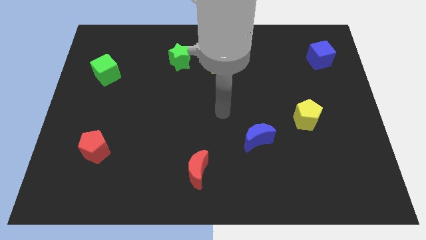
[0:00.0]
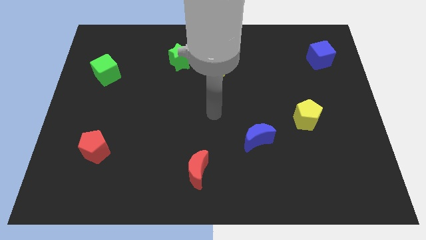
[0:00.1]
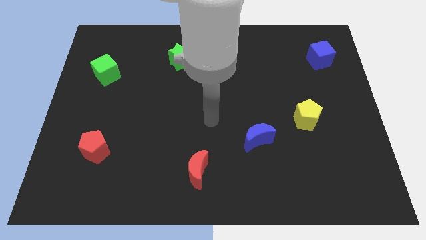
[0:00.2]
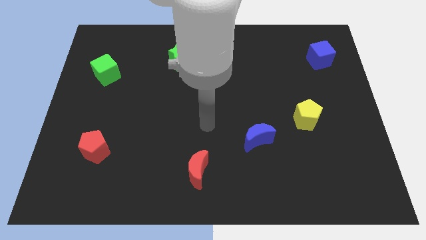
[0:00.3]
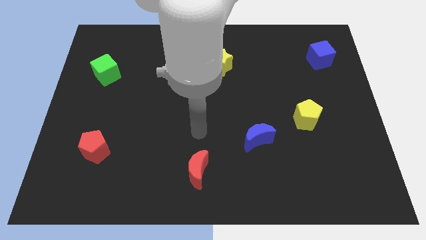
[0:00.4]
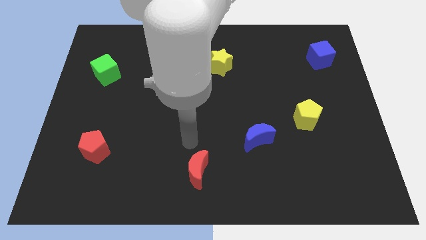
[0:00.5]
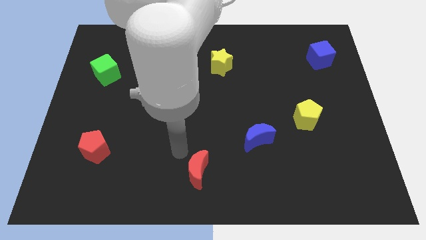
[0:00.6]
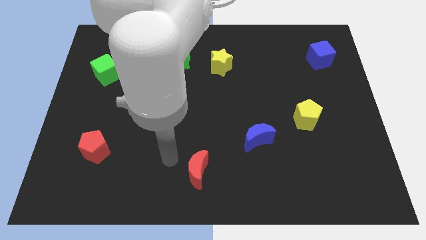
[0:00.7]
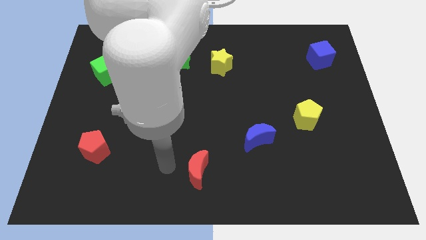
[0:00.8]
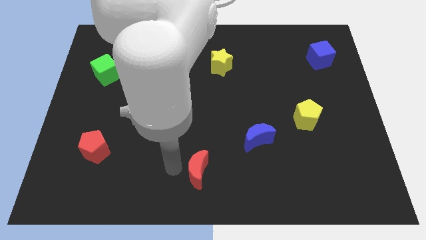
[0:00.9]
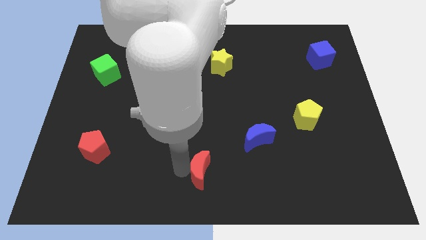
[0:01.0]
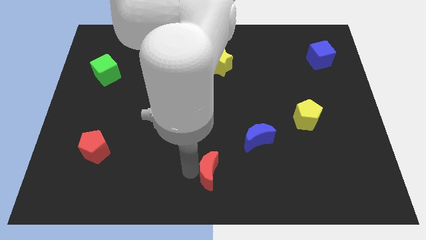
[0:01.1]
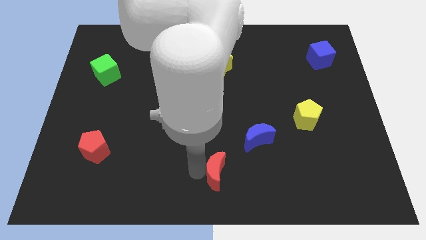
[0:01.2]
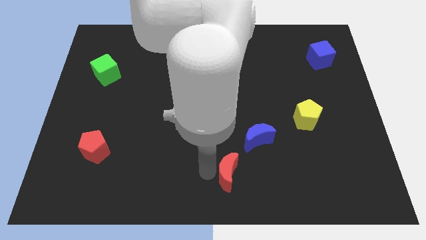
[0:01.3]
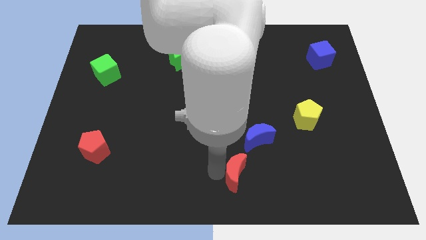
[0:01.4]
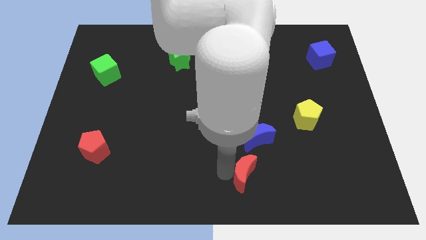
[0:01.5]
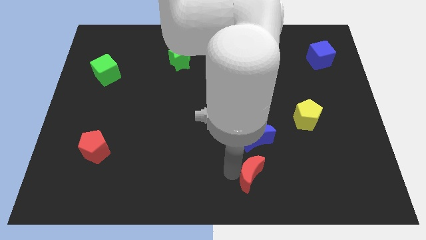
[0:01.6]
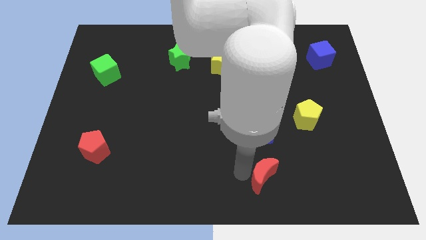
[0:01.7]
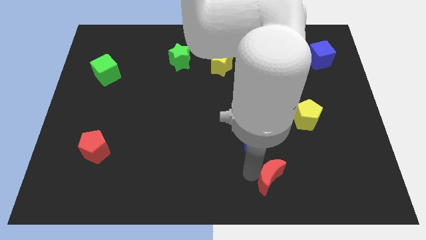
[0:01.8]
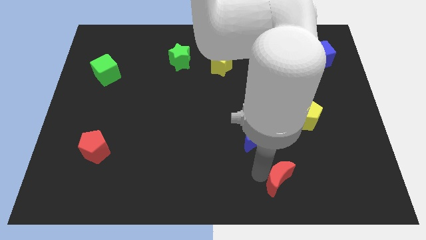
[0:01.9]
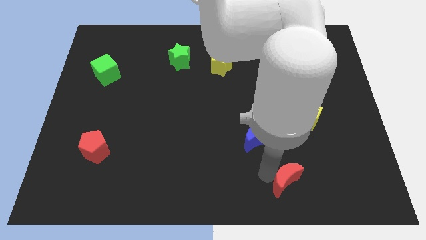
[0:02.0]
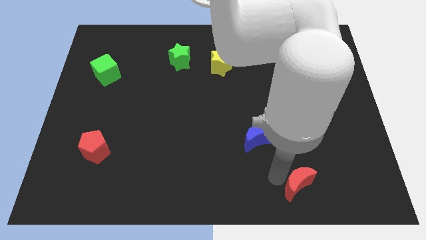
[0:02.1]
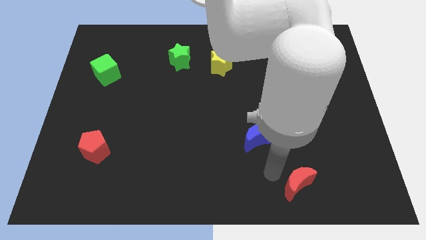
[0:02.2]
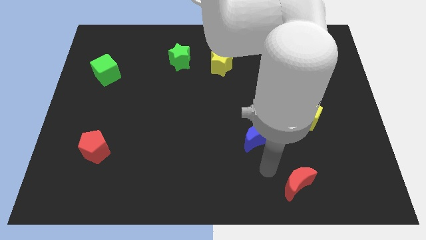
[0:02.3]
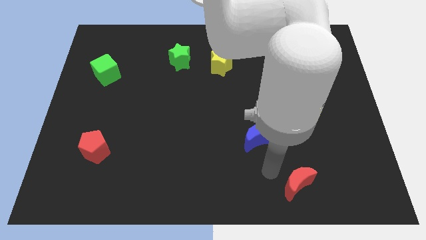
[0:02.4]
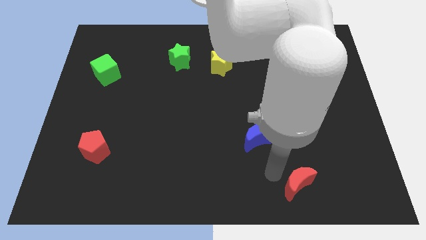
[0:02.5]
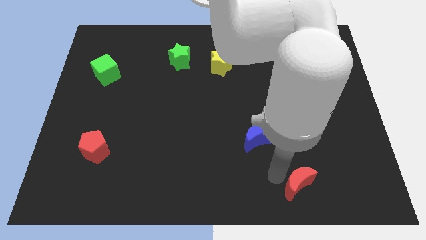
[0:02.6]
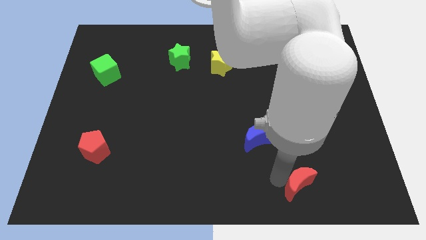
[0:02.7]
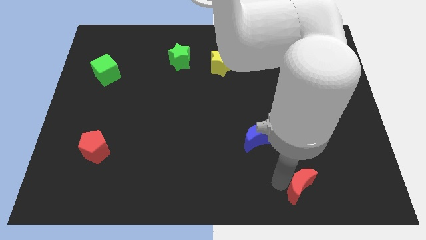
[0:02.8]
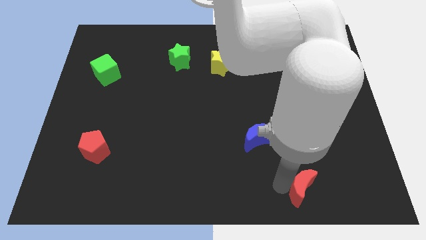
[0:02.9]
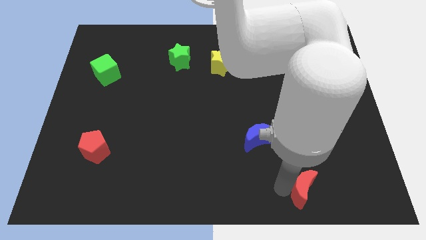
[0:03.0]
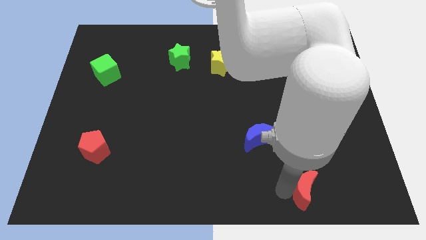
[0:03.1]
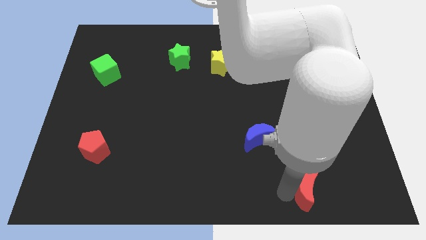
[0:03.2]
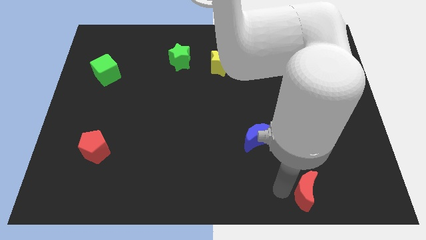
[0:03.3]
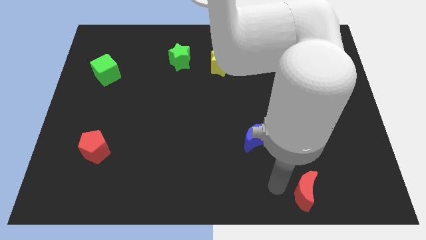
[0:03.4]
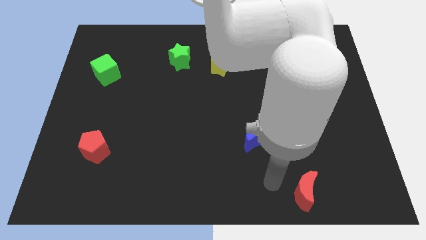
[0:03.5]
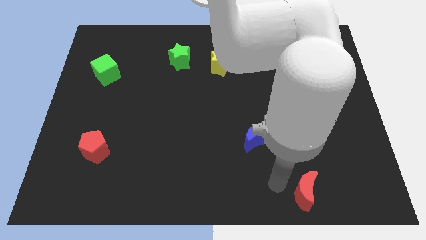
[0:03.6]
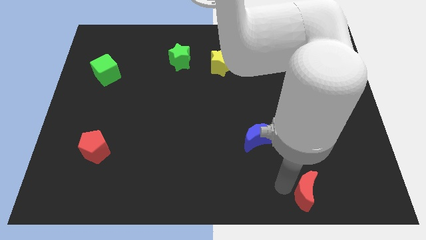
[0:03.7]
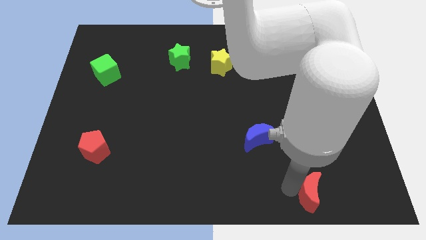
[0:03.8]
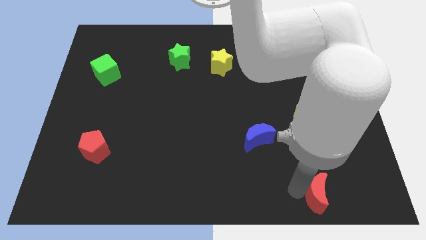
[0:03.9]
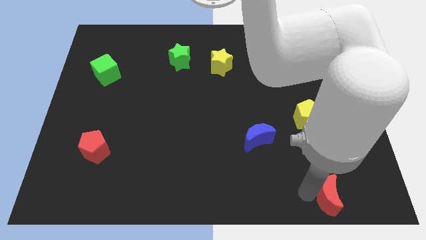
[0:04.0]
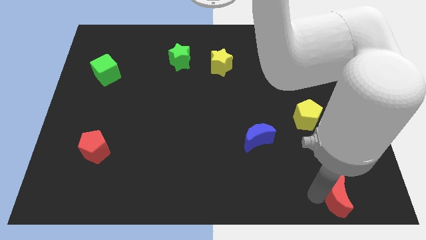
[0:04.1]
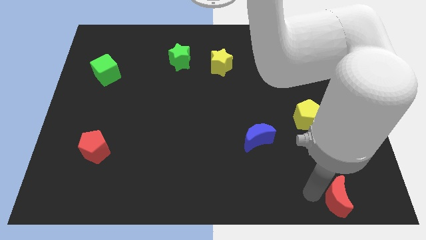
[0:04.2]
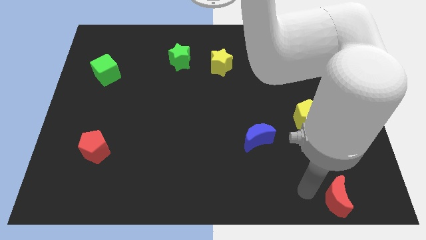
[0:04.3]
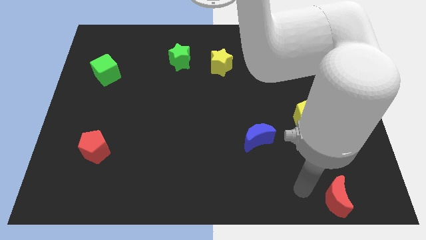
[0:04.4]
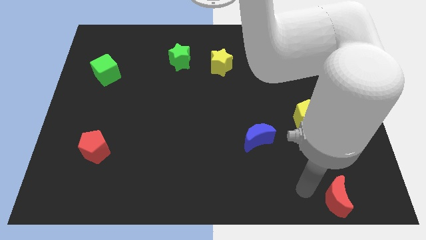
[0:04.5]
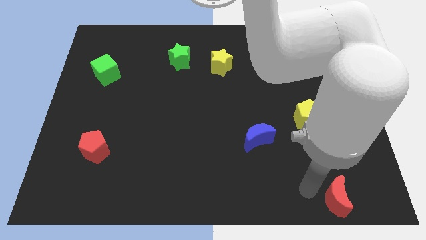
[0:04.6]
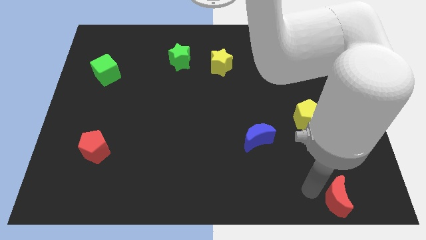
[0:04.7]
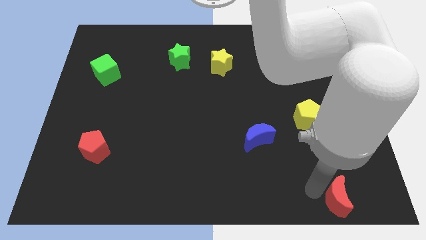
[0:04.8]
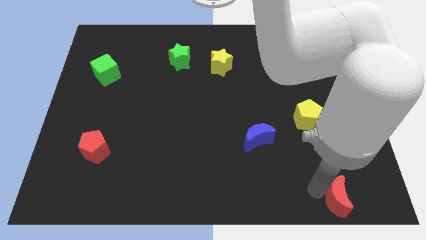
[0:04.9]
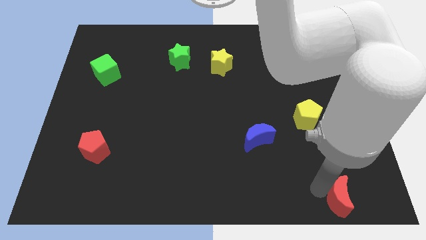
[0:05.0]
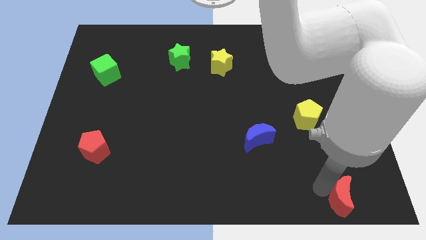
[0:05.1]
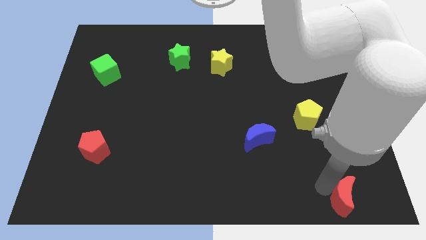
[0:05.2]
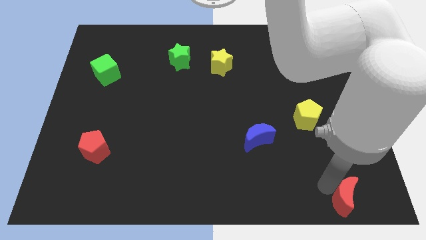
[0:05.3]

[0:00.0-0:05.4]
push the red moon to the bottom right of the board
